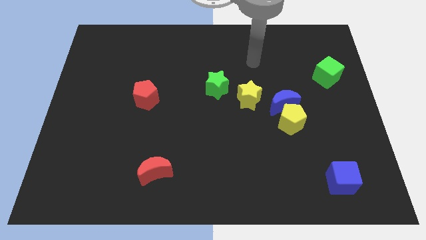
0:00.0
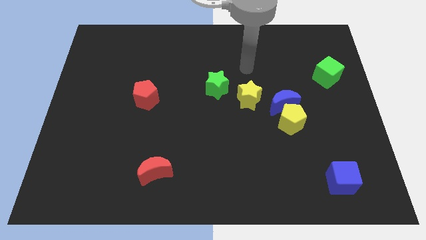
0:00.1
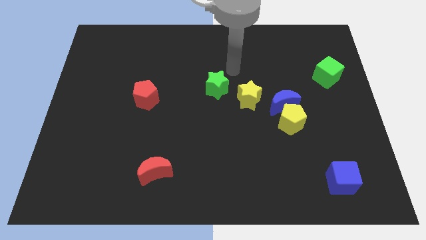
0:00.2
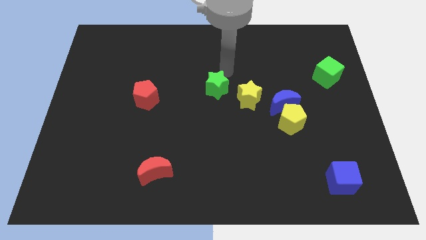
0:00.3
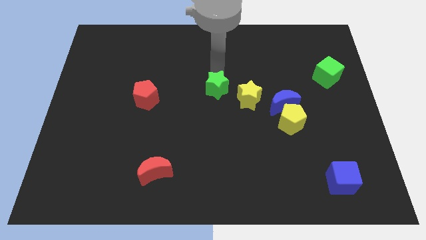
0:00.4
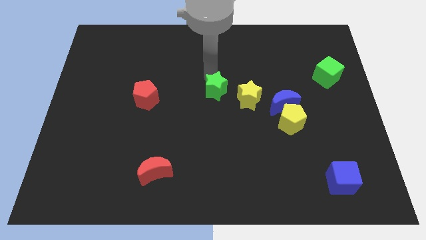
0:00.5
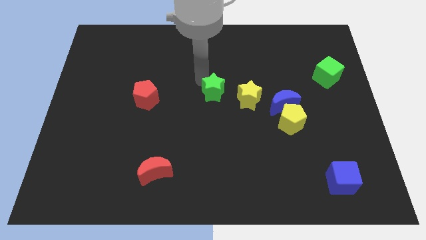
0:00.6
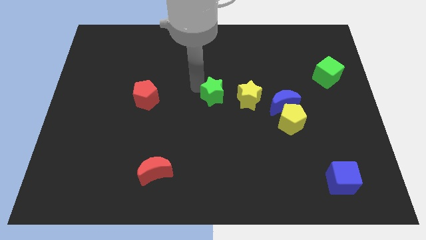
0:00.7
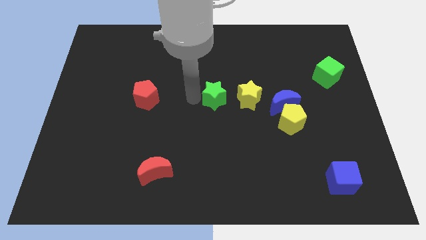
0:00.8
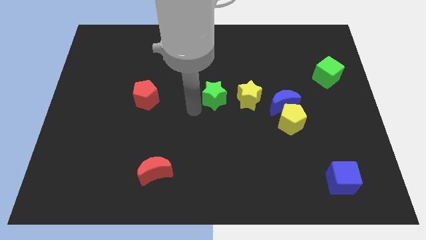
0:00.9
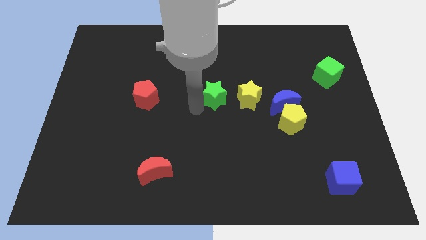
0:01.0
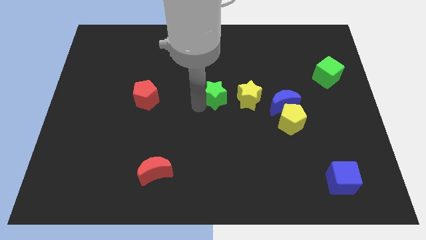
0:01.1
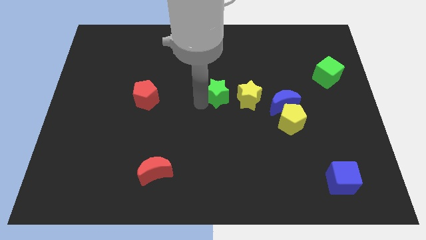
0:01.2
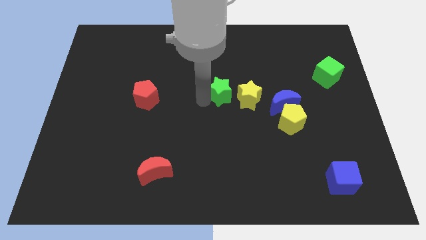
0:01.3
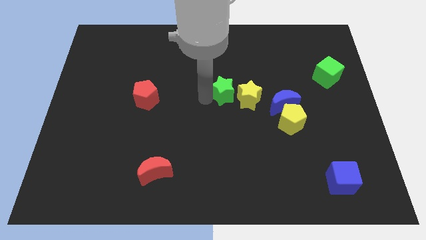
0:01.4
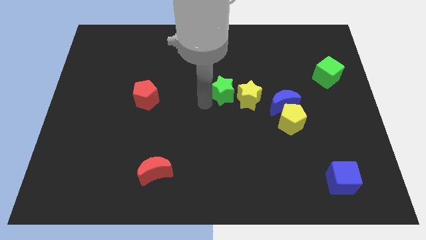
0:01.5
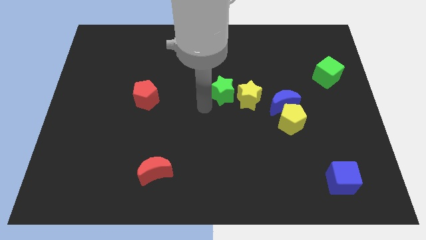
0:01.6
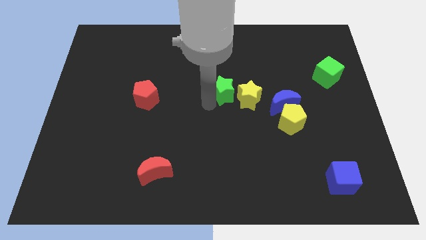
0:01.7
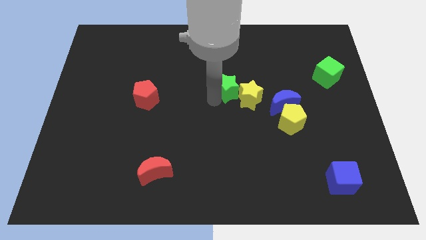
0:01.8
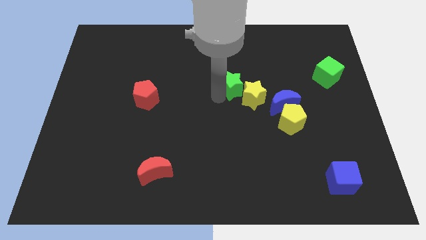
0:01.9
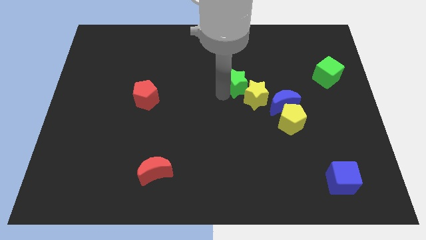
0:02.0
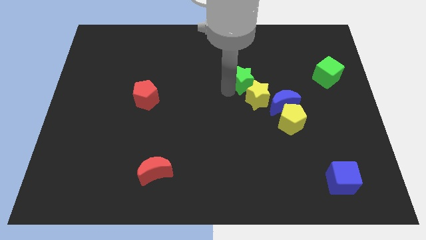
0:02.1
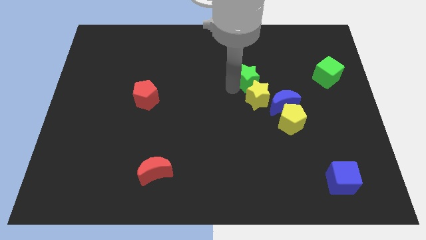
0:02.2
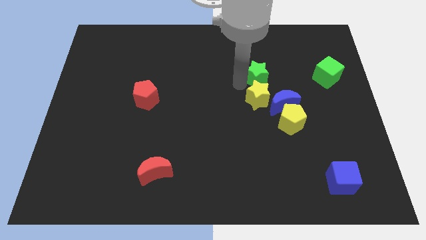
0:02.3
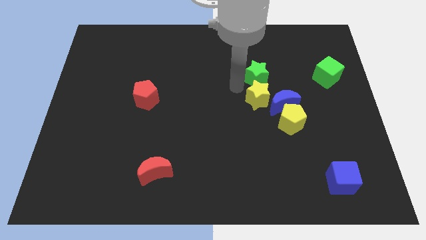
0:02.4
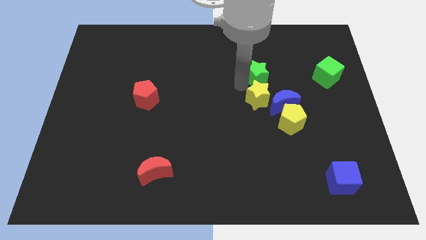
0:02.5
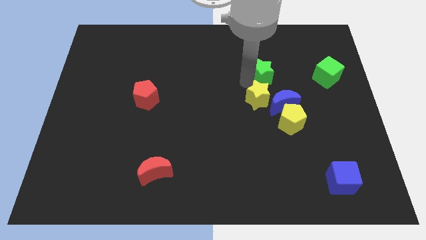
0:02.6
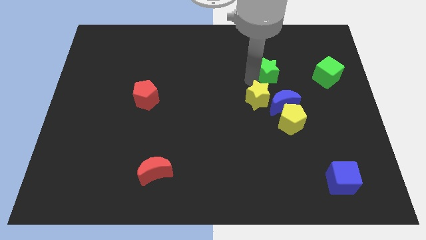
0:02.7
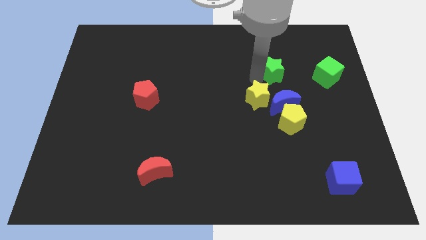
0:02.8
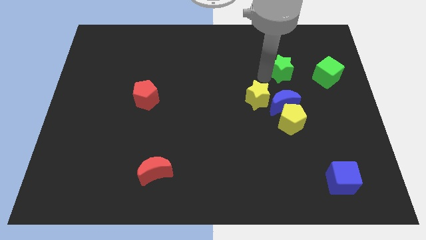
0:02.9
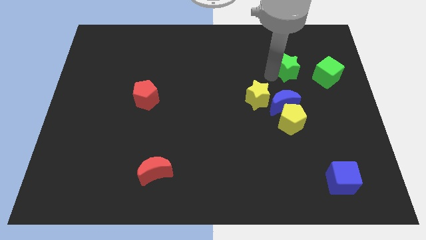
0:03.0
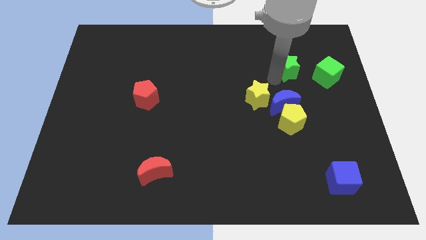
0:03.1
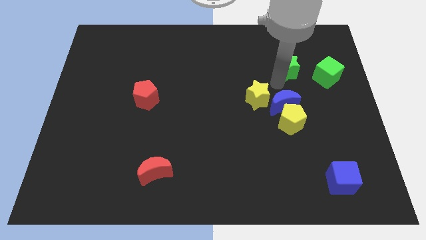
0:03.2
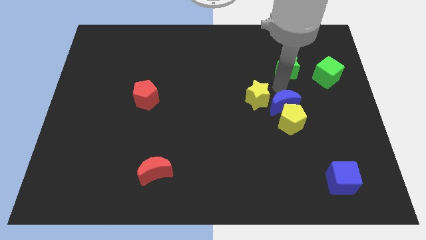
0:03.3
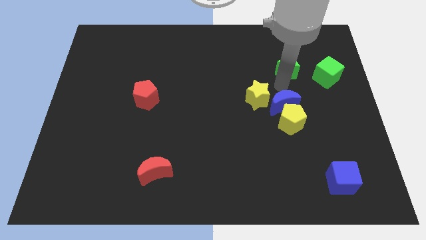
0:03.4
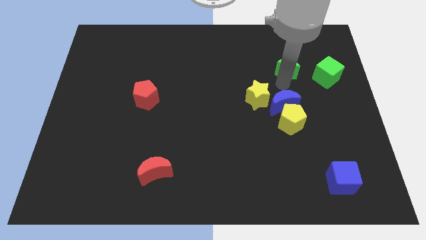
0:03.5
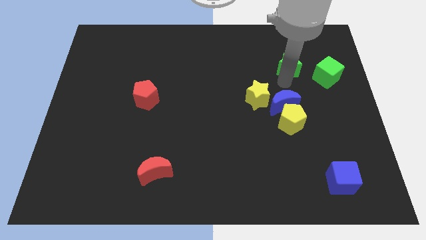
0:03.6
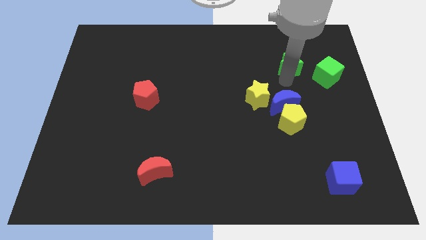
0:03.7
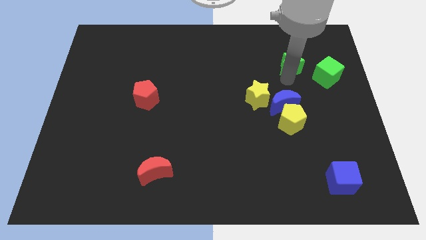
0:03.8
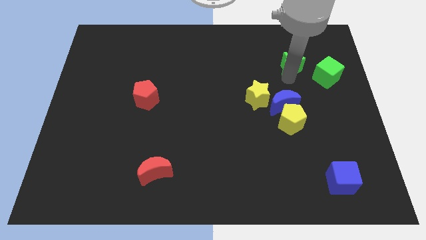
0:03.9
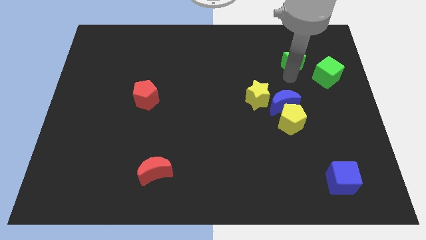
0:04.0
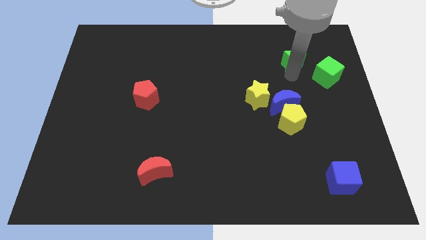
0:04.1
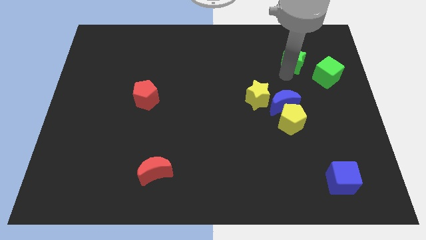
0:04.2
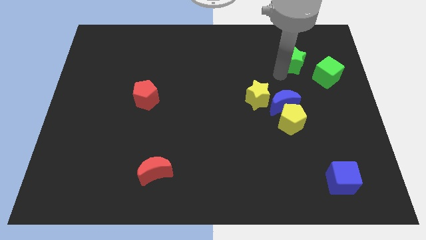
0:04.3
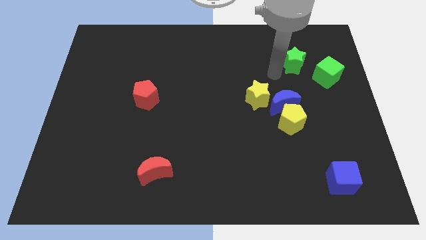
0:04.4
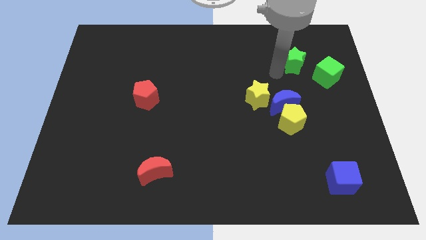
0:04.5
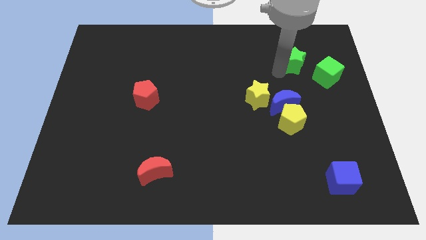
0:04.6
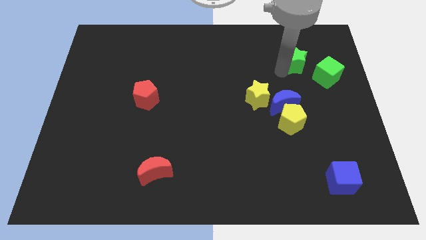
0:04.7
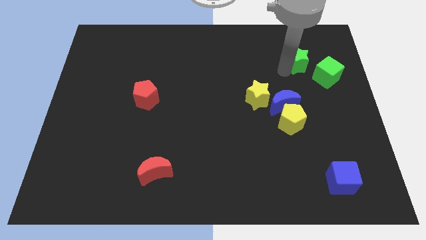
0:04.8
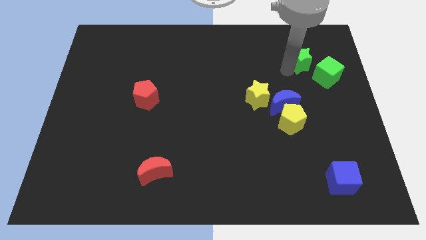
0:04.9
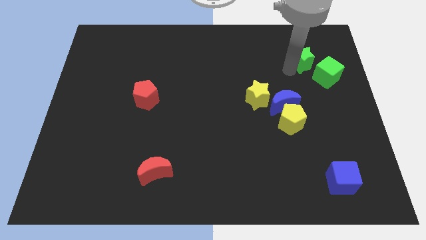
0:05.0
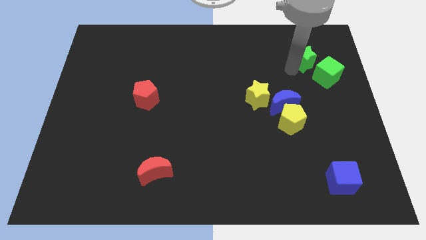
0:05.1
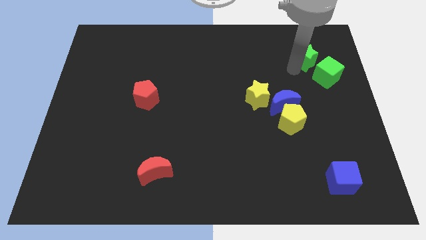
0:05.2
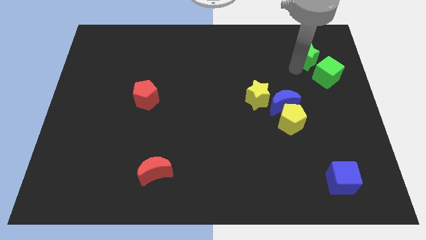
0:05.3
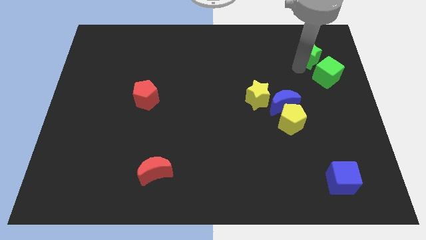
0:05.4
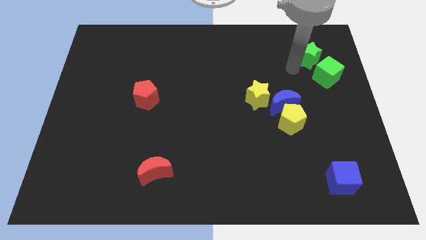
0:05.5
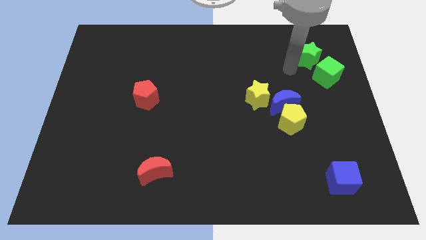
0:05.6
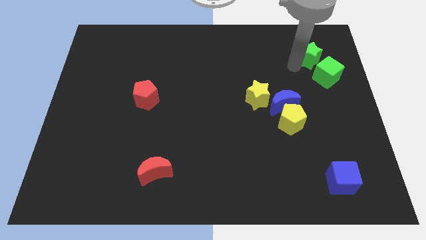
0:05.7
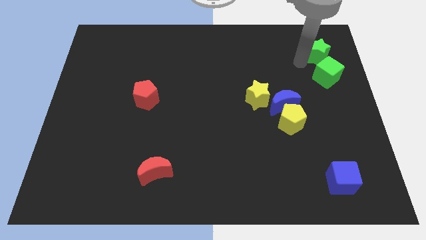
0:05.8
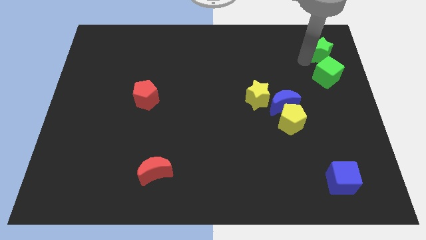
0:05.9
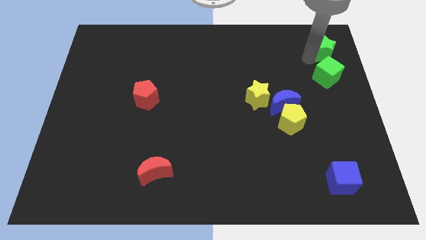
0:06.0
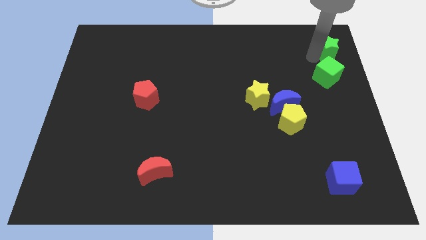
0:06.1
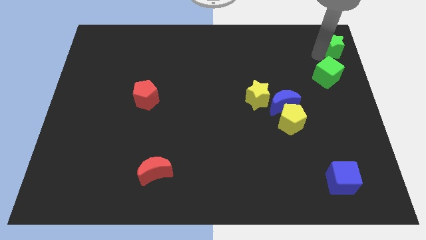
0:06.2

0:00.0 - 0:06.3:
move the green star to the top right corner
